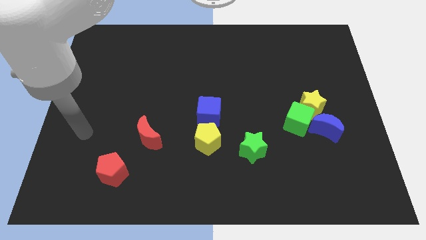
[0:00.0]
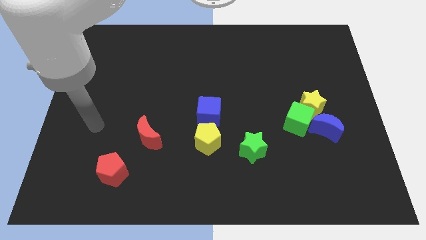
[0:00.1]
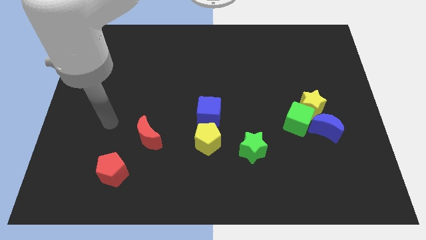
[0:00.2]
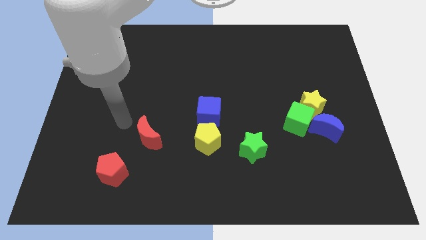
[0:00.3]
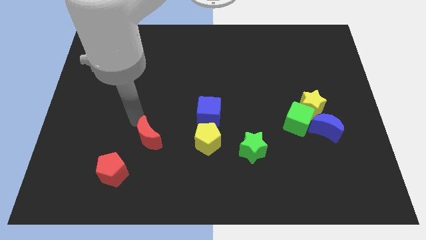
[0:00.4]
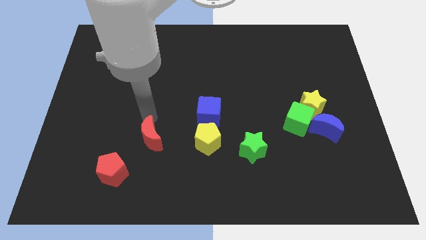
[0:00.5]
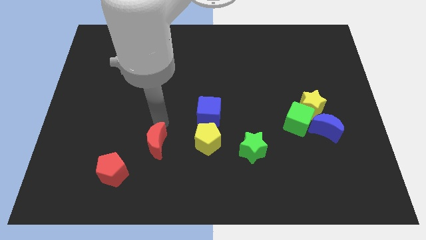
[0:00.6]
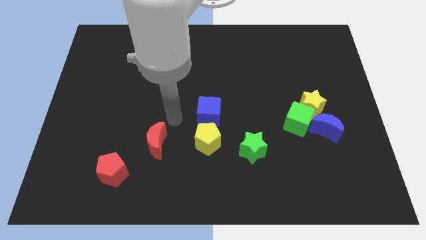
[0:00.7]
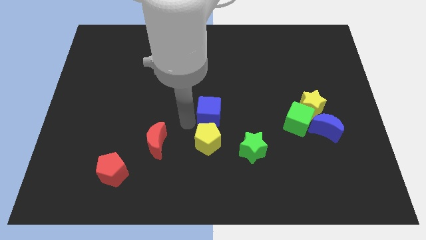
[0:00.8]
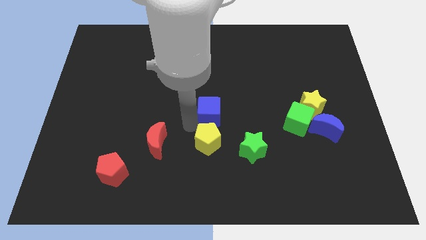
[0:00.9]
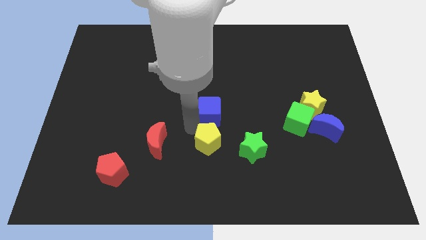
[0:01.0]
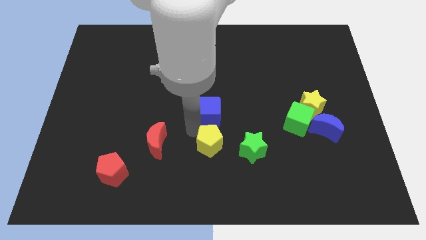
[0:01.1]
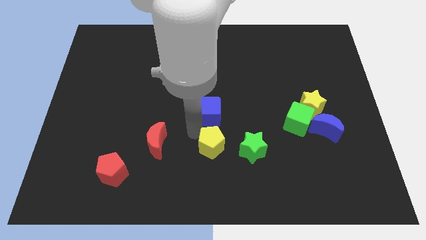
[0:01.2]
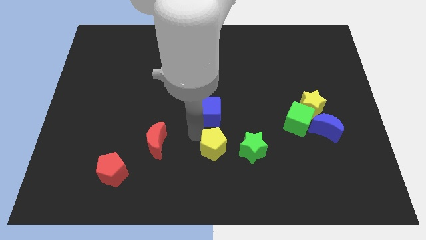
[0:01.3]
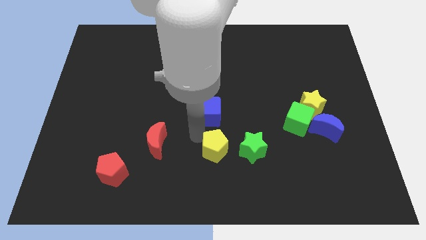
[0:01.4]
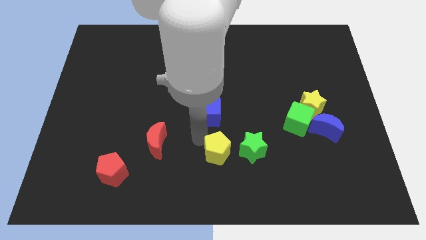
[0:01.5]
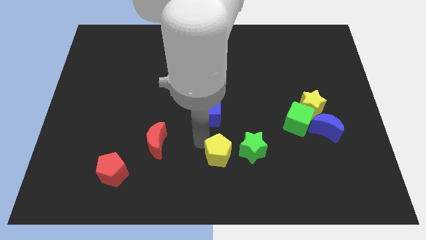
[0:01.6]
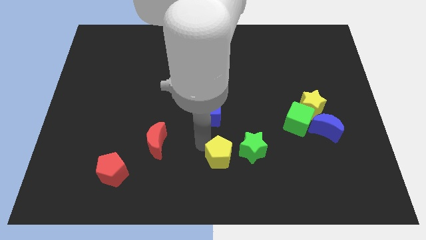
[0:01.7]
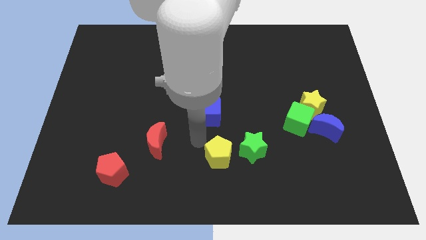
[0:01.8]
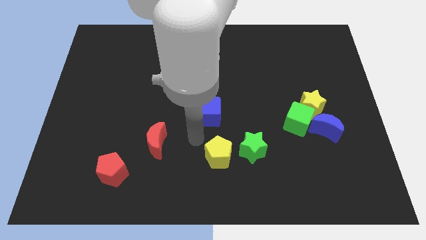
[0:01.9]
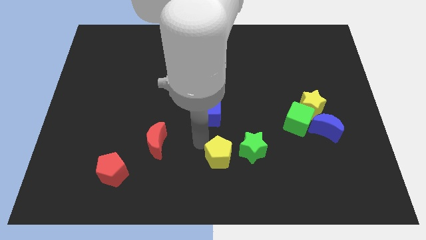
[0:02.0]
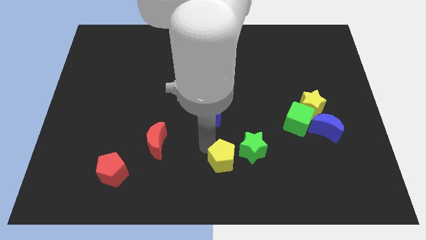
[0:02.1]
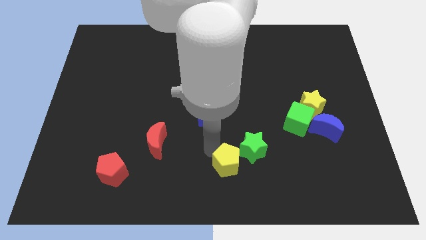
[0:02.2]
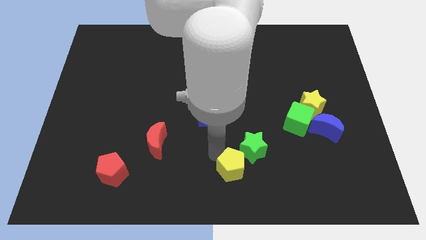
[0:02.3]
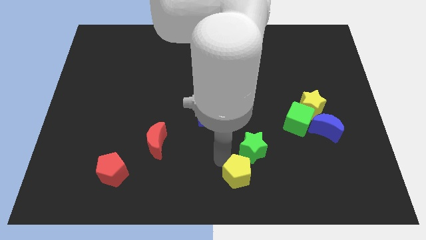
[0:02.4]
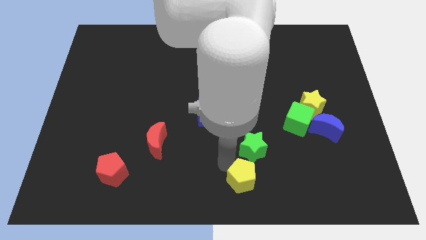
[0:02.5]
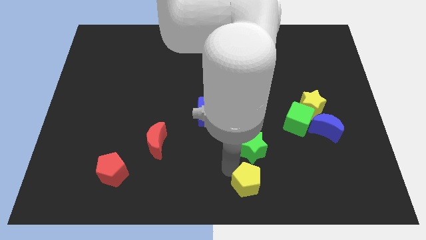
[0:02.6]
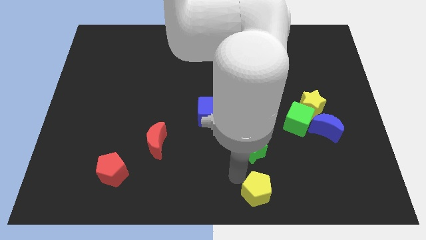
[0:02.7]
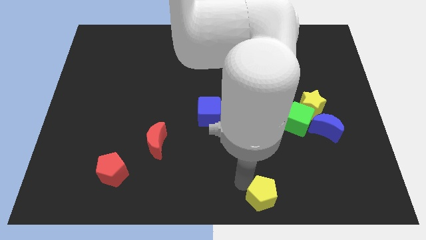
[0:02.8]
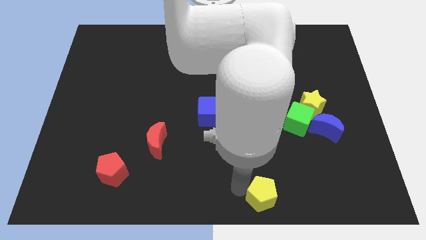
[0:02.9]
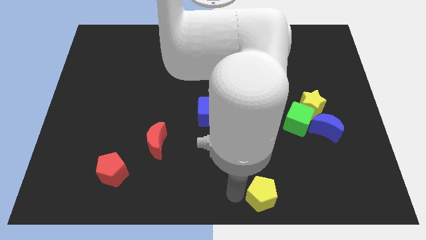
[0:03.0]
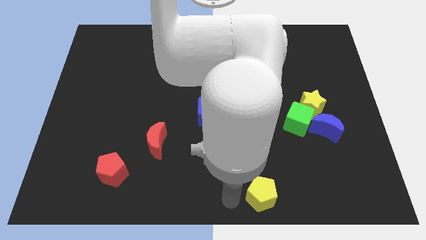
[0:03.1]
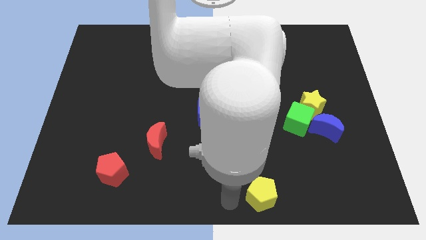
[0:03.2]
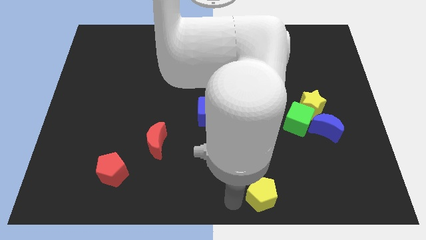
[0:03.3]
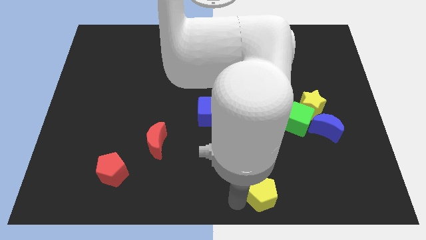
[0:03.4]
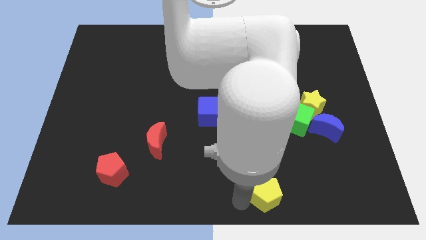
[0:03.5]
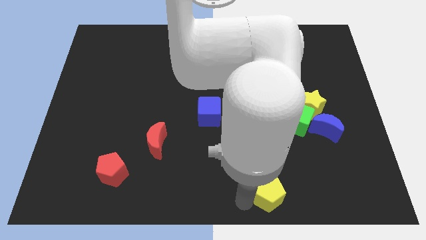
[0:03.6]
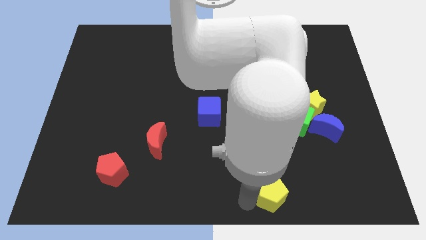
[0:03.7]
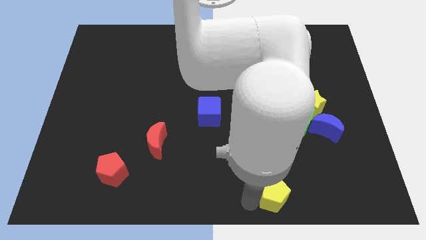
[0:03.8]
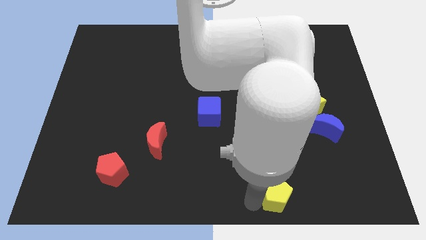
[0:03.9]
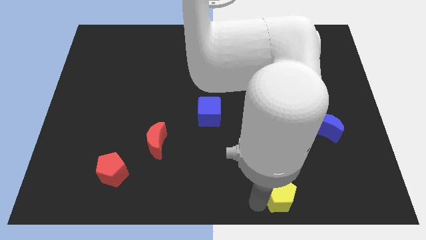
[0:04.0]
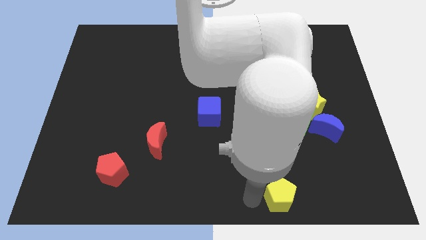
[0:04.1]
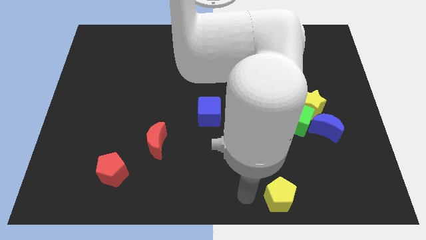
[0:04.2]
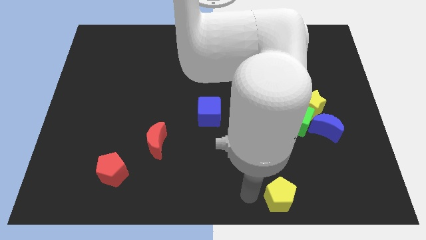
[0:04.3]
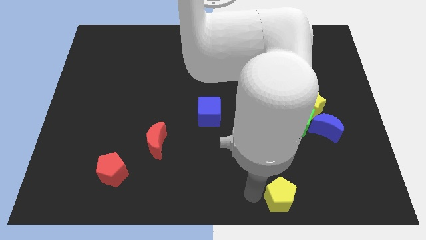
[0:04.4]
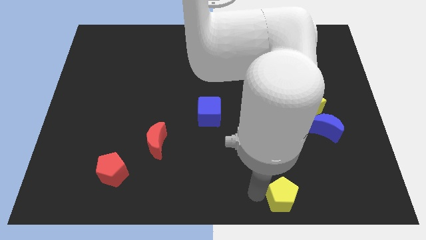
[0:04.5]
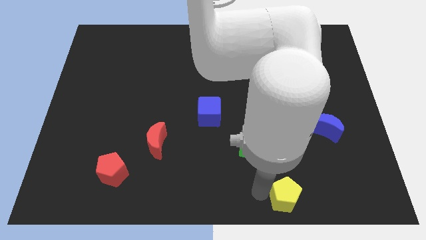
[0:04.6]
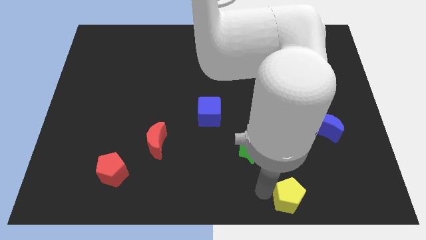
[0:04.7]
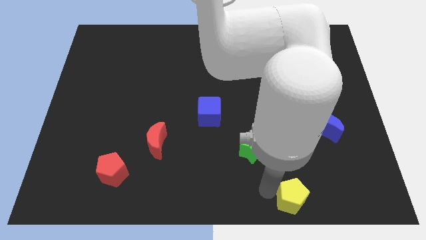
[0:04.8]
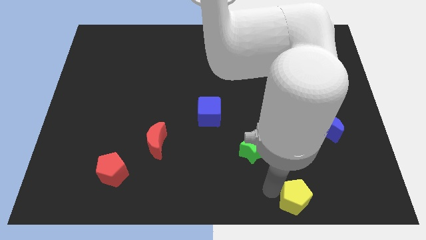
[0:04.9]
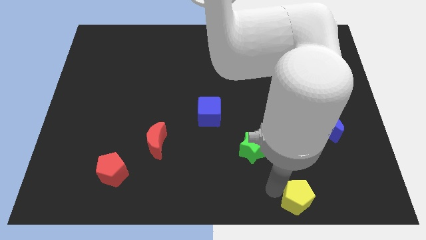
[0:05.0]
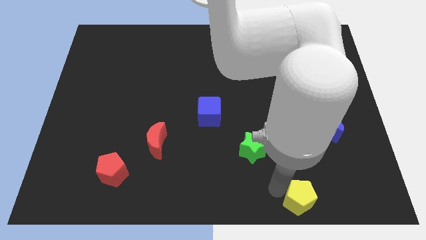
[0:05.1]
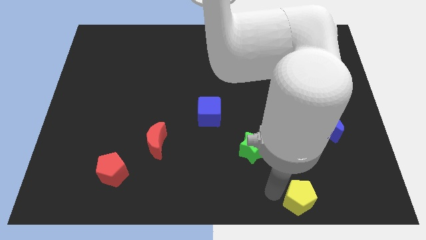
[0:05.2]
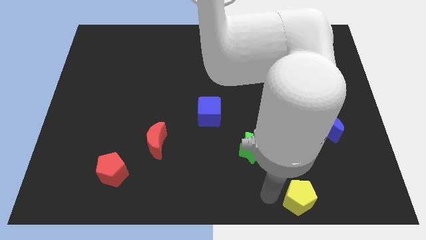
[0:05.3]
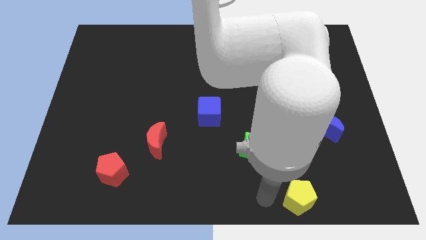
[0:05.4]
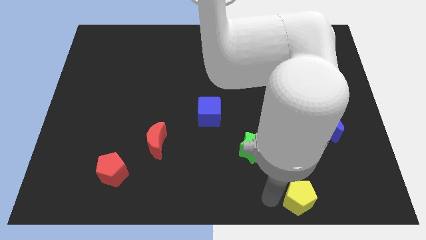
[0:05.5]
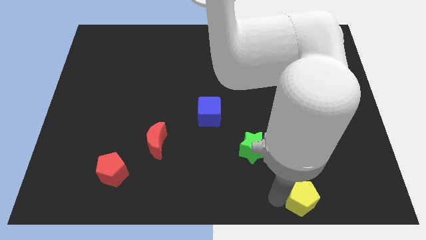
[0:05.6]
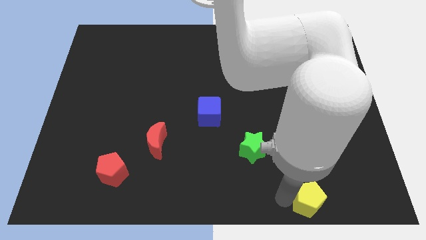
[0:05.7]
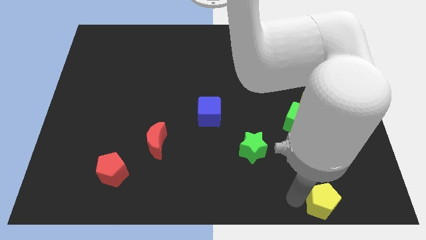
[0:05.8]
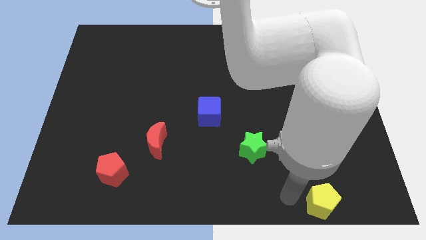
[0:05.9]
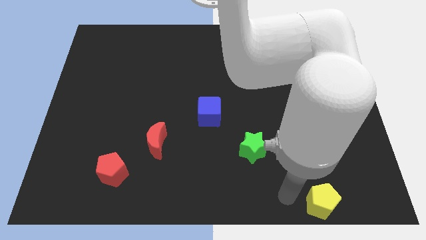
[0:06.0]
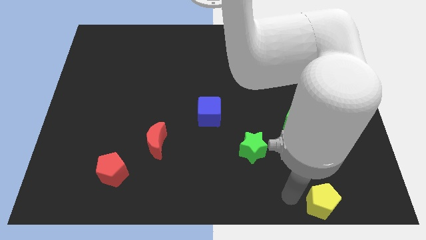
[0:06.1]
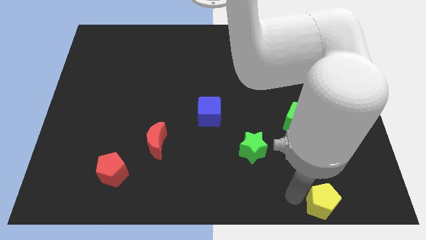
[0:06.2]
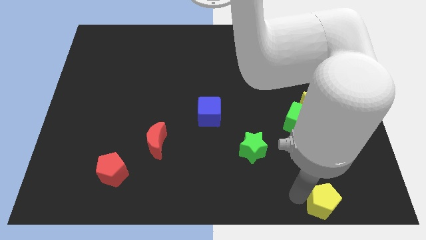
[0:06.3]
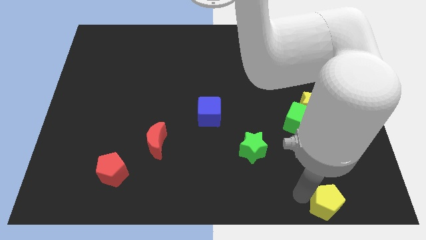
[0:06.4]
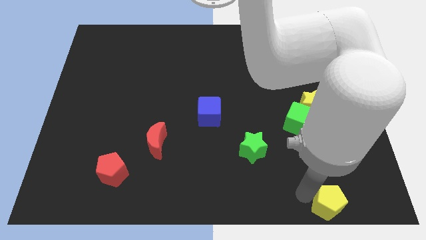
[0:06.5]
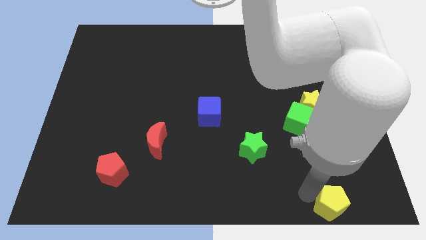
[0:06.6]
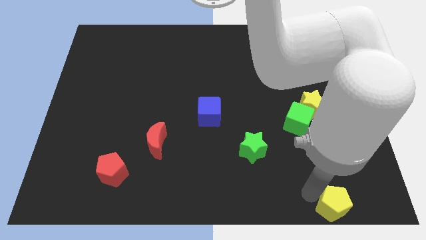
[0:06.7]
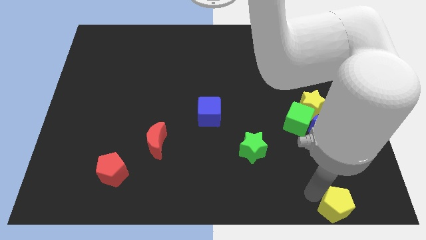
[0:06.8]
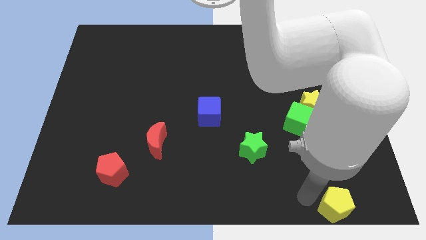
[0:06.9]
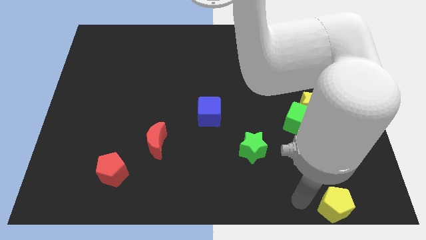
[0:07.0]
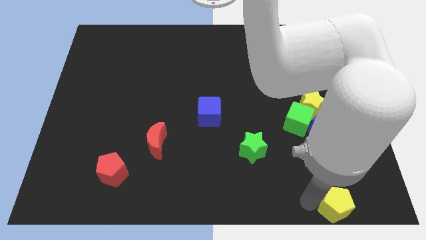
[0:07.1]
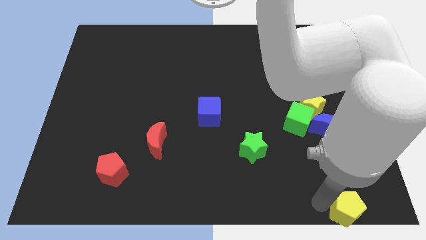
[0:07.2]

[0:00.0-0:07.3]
slide the yellow pentagon to the bottom right corner
